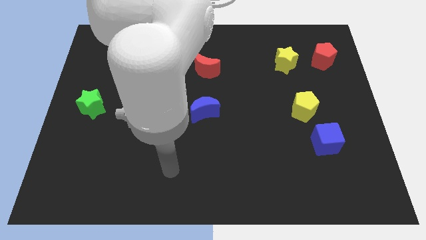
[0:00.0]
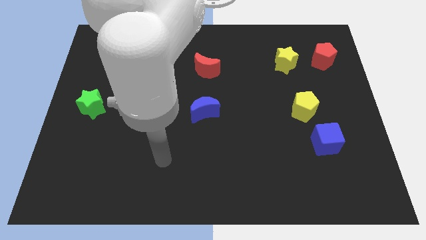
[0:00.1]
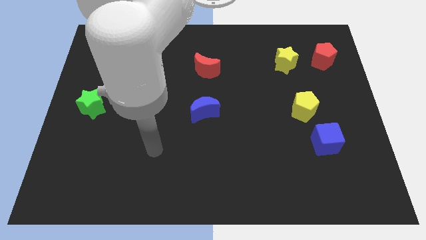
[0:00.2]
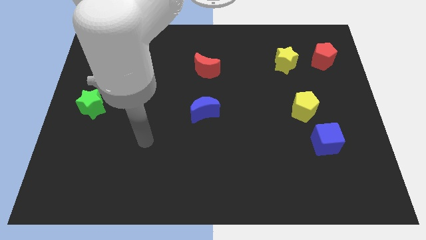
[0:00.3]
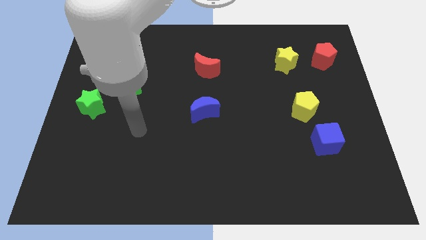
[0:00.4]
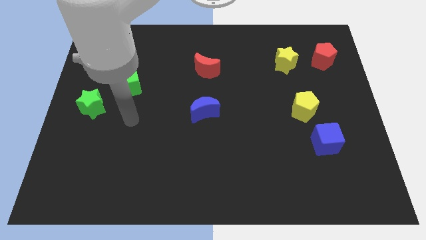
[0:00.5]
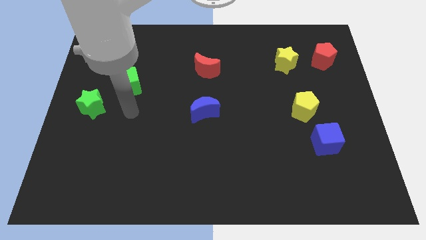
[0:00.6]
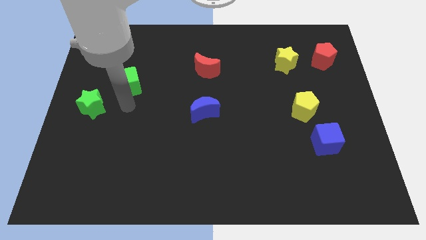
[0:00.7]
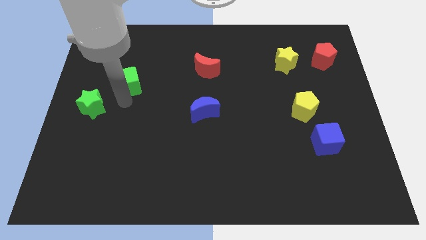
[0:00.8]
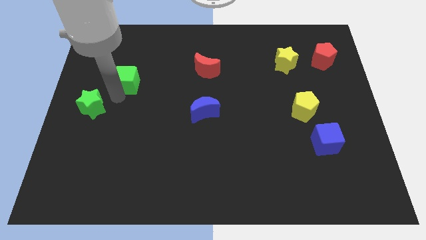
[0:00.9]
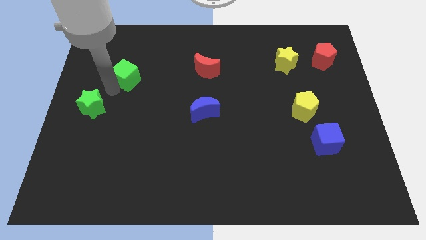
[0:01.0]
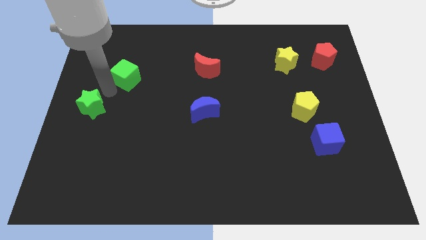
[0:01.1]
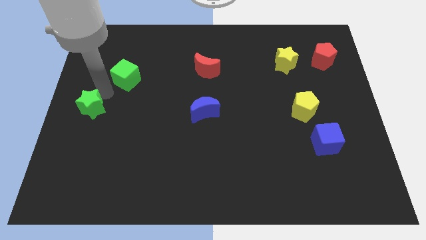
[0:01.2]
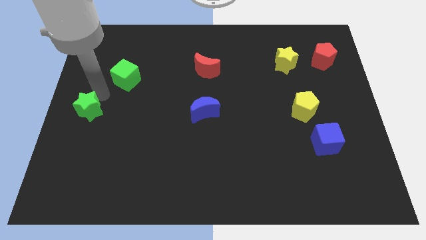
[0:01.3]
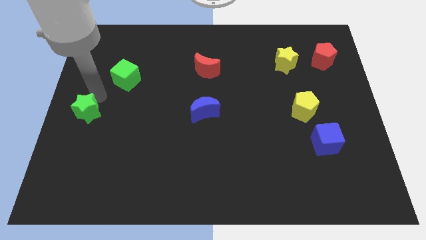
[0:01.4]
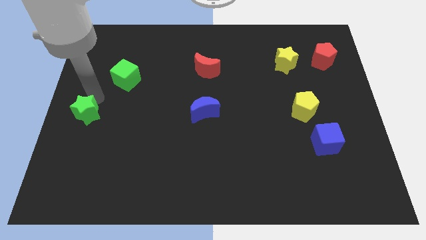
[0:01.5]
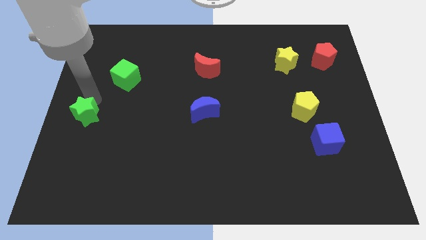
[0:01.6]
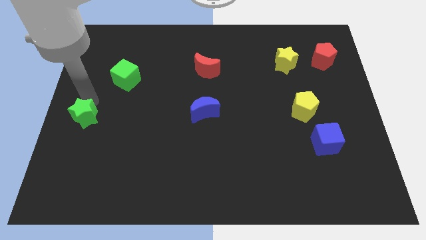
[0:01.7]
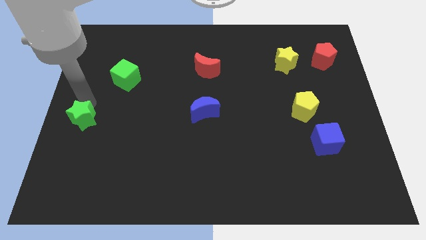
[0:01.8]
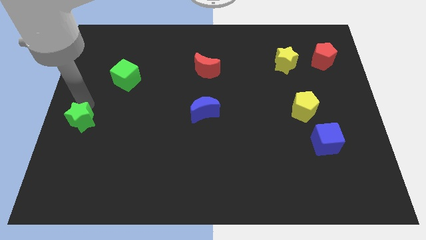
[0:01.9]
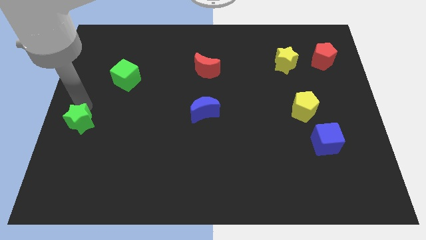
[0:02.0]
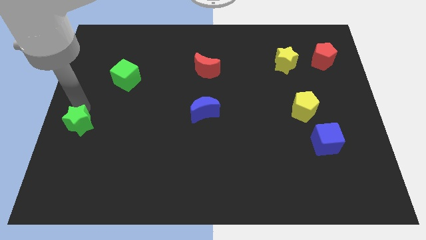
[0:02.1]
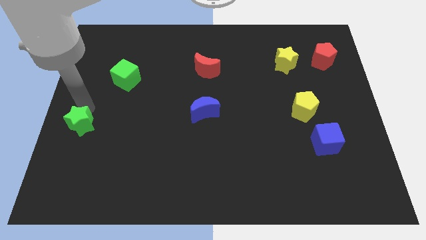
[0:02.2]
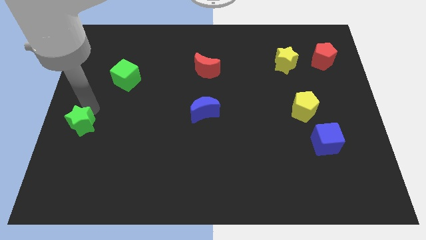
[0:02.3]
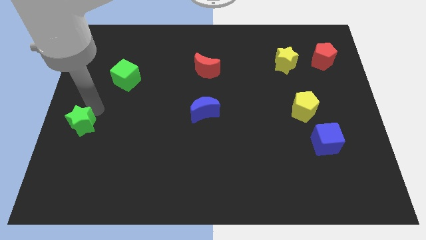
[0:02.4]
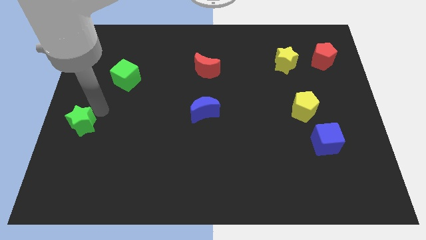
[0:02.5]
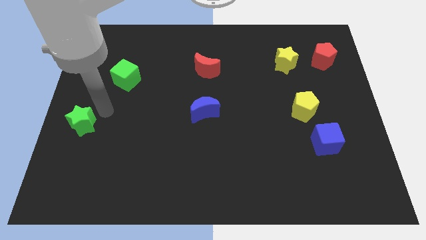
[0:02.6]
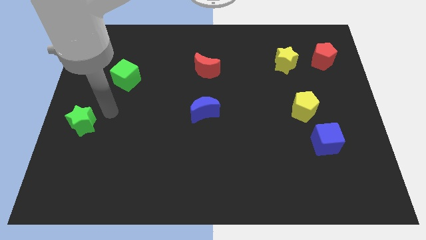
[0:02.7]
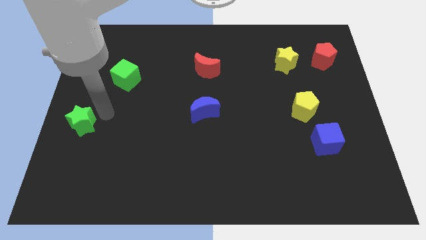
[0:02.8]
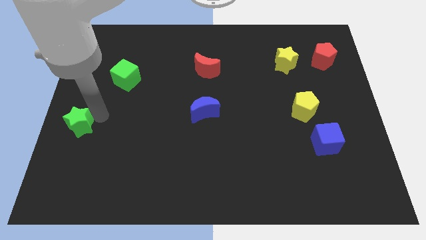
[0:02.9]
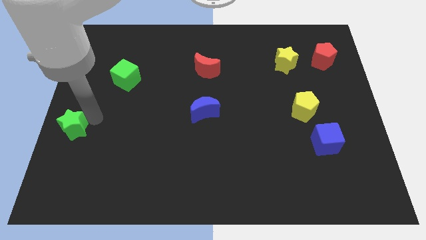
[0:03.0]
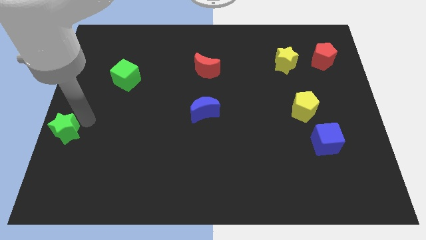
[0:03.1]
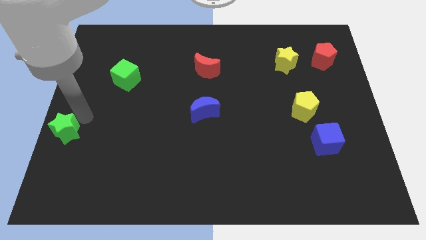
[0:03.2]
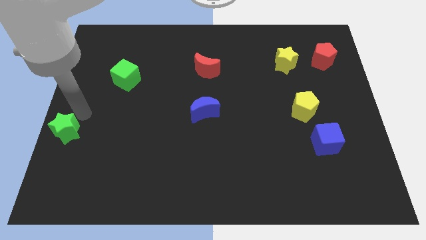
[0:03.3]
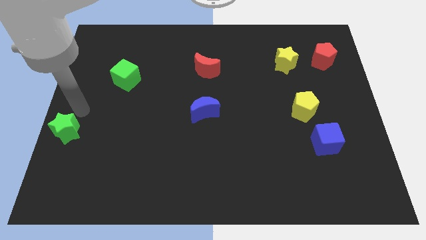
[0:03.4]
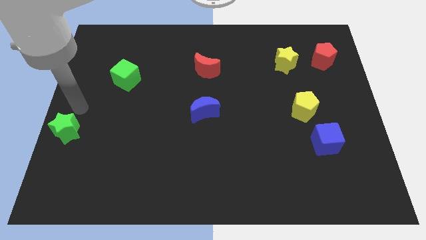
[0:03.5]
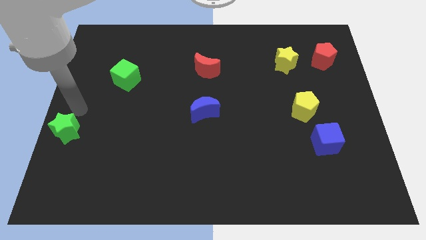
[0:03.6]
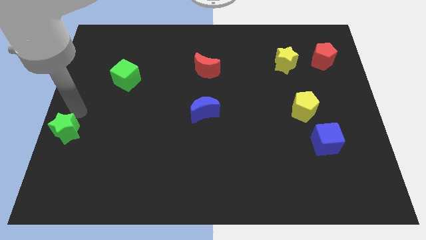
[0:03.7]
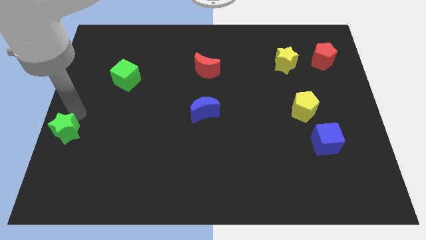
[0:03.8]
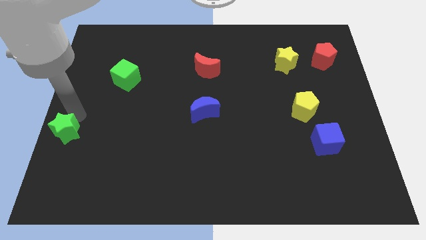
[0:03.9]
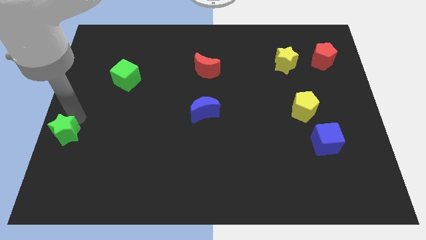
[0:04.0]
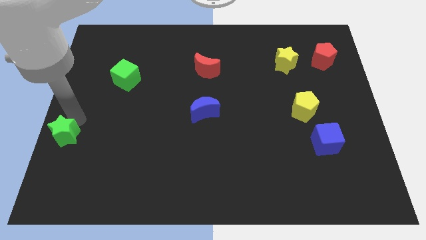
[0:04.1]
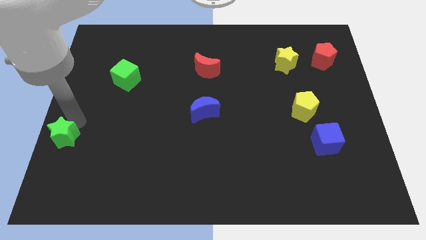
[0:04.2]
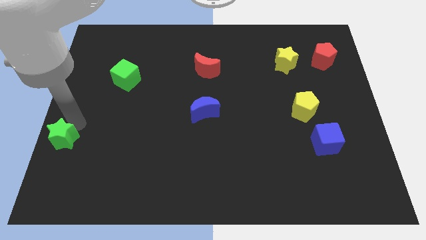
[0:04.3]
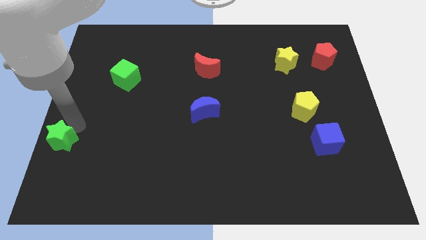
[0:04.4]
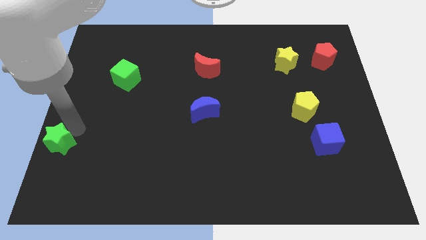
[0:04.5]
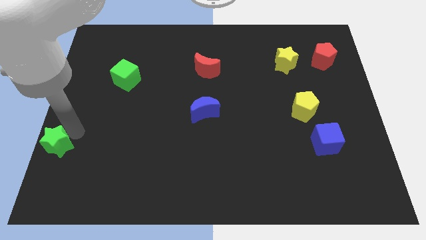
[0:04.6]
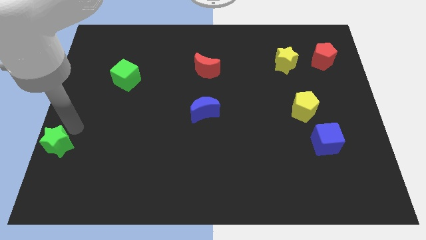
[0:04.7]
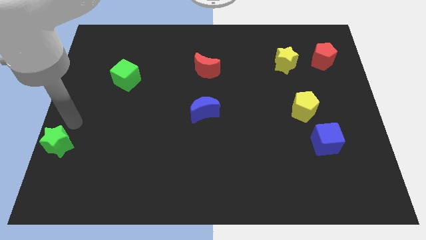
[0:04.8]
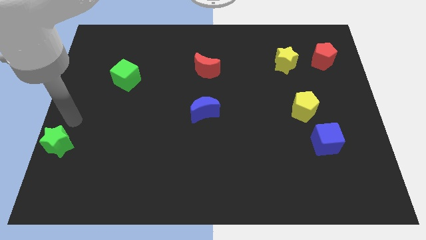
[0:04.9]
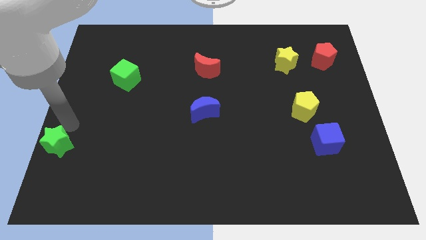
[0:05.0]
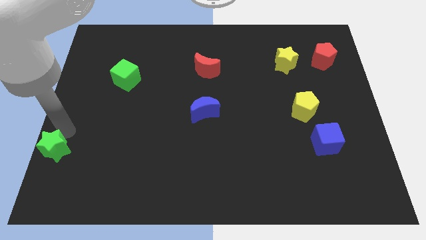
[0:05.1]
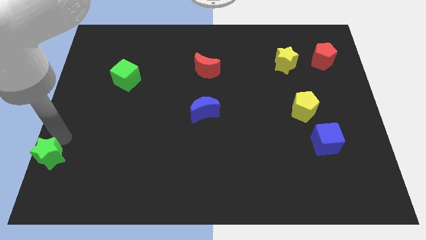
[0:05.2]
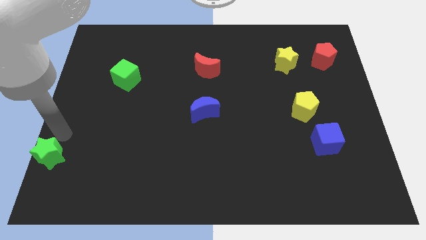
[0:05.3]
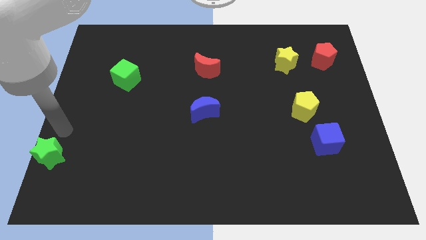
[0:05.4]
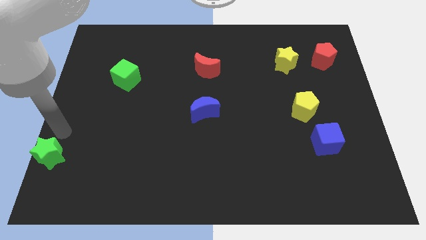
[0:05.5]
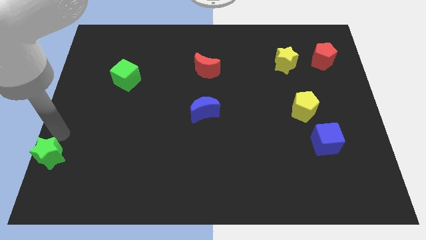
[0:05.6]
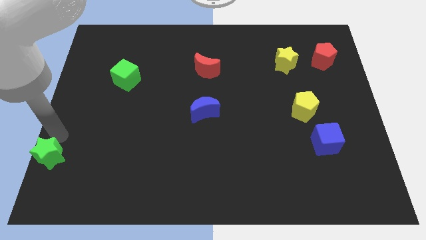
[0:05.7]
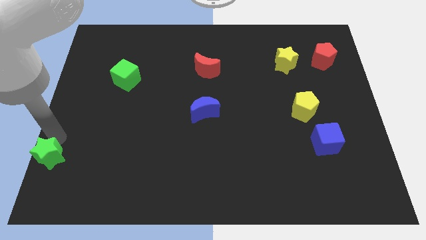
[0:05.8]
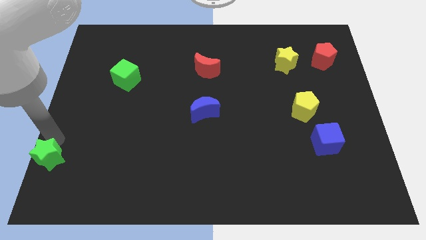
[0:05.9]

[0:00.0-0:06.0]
move the green star to the lower left corner
